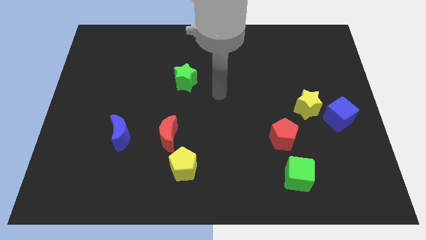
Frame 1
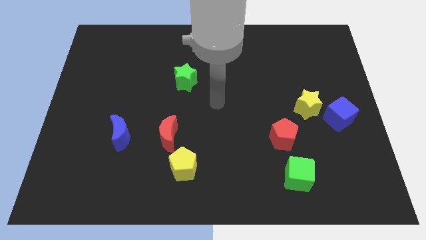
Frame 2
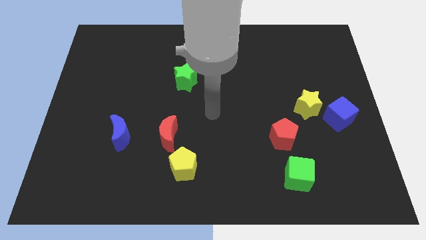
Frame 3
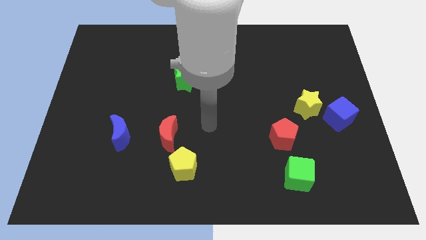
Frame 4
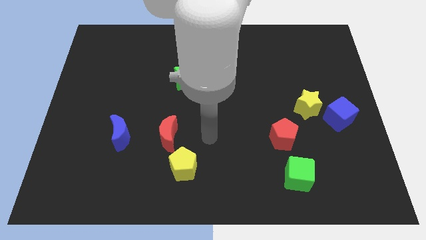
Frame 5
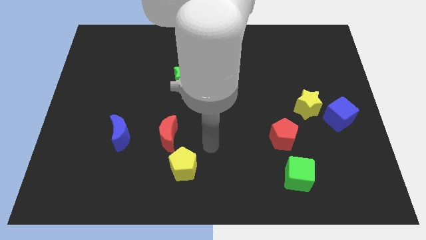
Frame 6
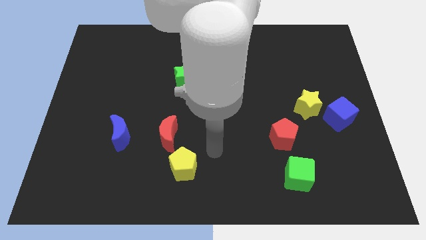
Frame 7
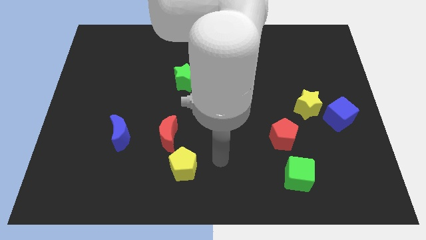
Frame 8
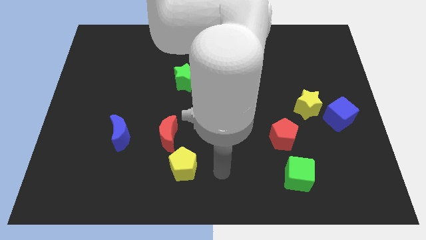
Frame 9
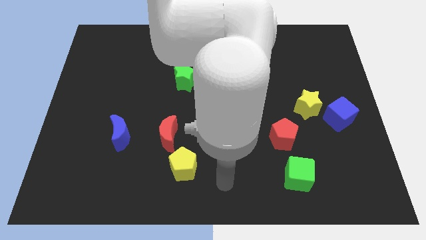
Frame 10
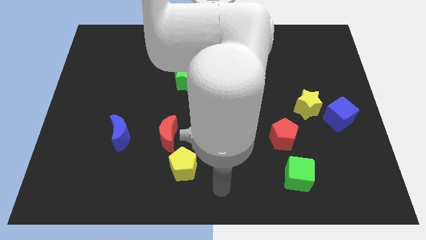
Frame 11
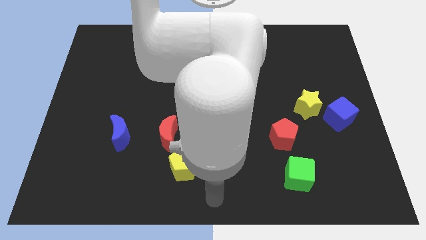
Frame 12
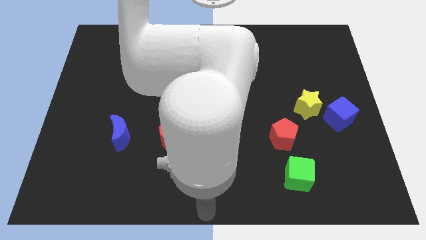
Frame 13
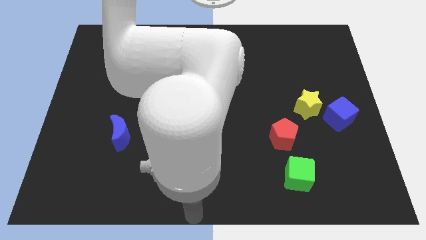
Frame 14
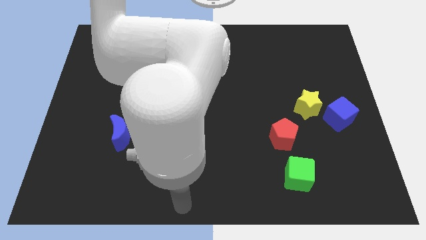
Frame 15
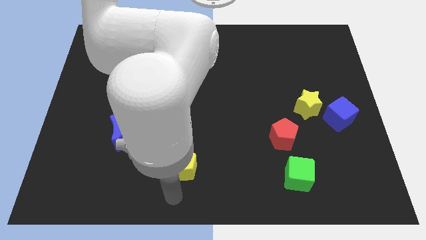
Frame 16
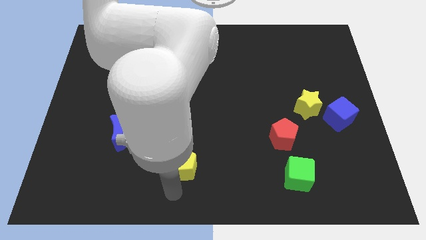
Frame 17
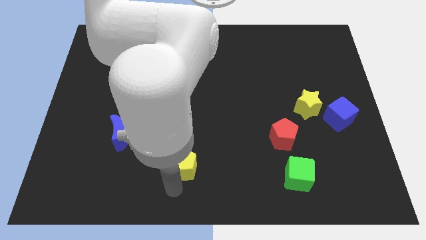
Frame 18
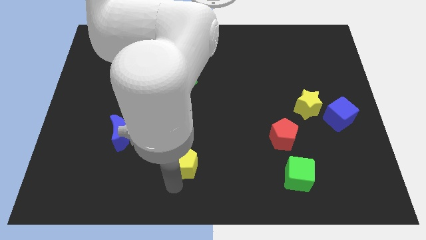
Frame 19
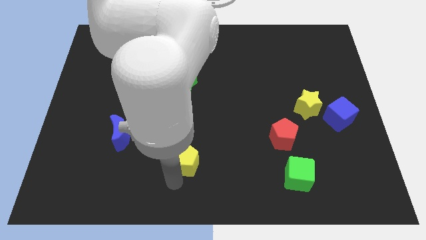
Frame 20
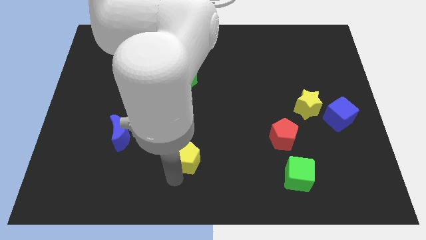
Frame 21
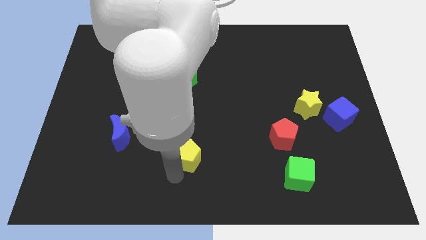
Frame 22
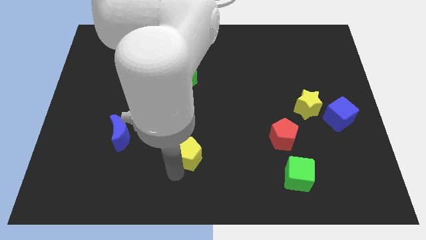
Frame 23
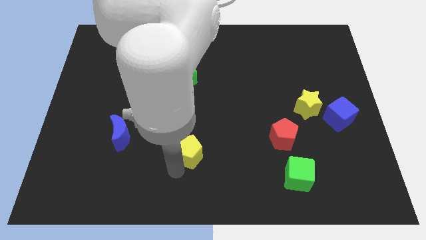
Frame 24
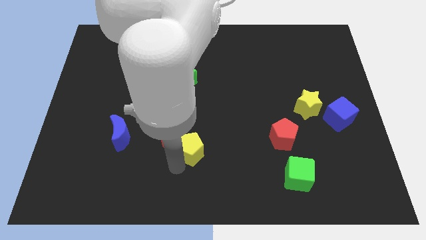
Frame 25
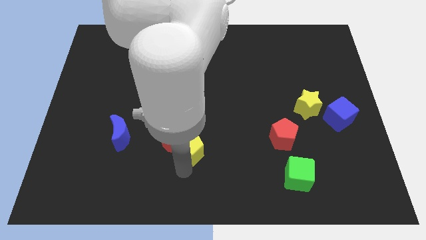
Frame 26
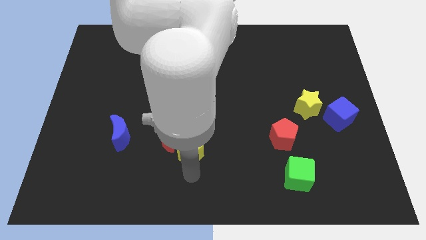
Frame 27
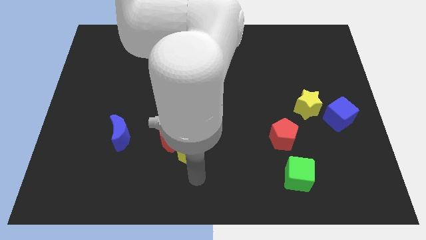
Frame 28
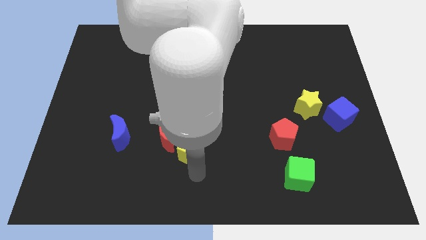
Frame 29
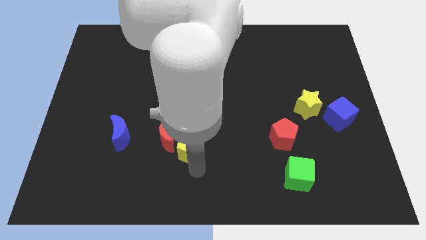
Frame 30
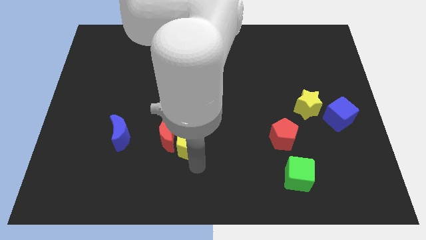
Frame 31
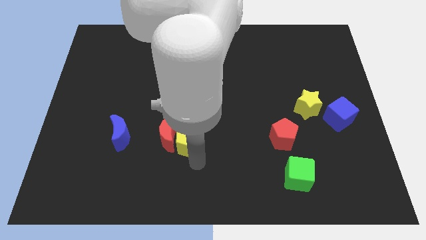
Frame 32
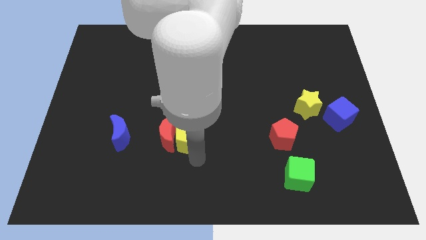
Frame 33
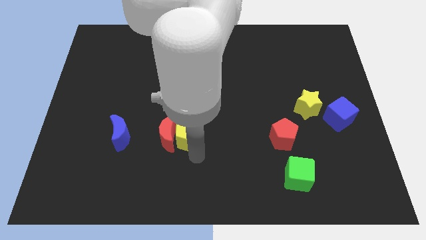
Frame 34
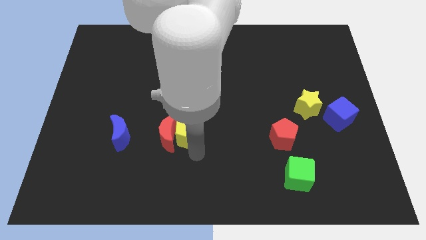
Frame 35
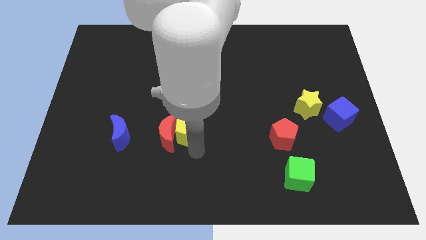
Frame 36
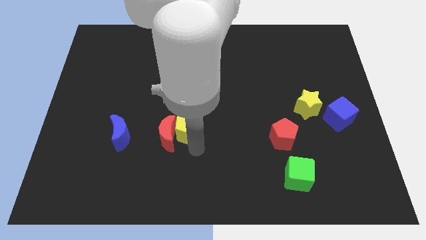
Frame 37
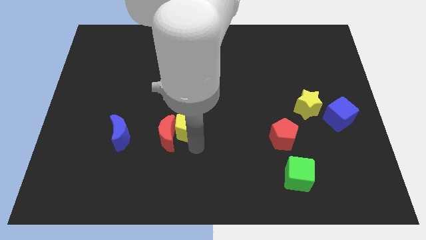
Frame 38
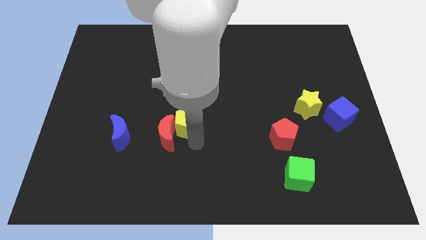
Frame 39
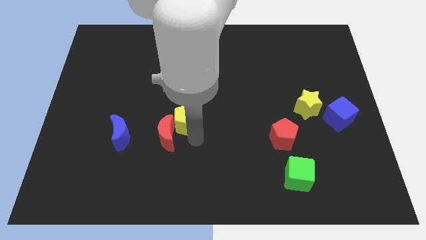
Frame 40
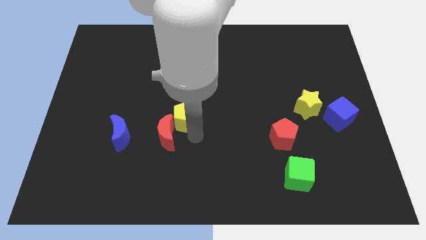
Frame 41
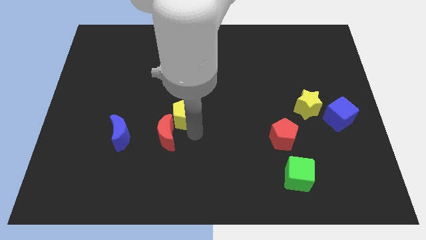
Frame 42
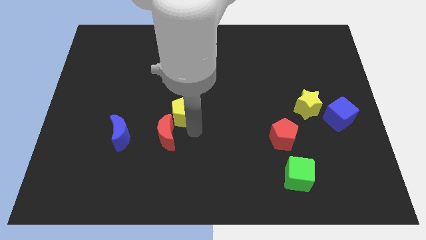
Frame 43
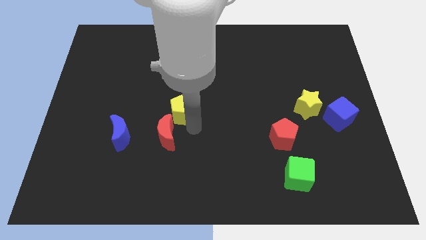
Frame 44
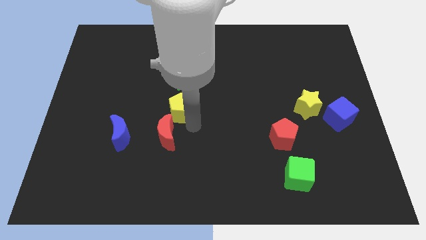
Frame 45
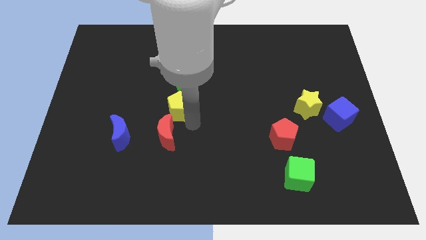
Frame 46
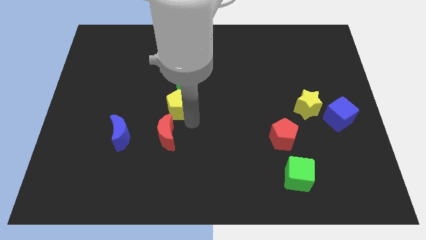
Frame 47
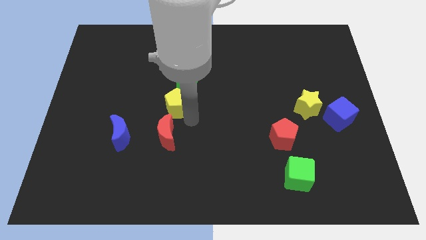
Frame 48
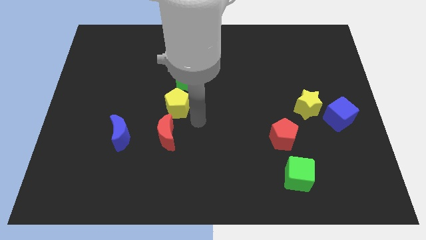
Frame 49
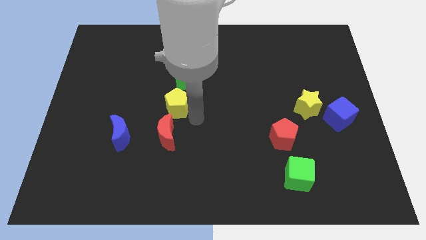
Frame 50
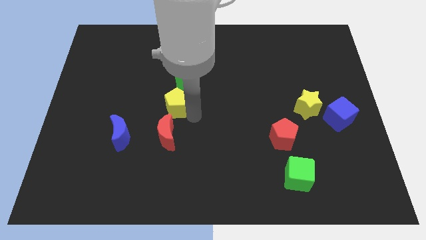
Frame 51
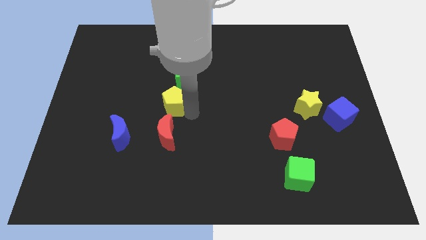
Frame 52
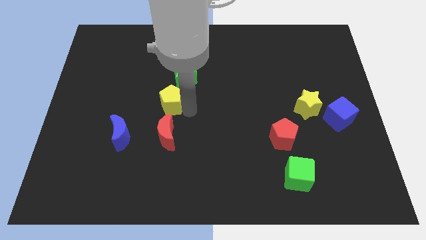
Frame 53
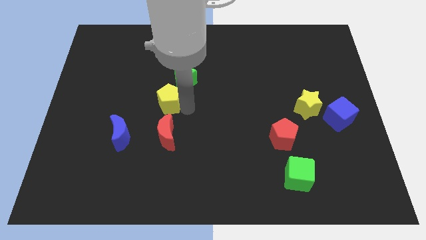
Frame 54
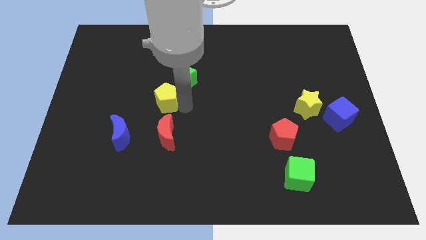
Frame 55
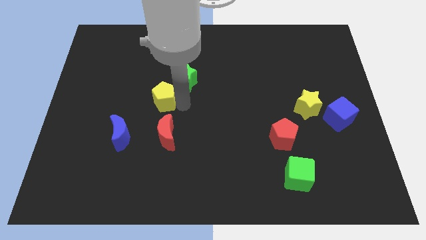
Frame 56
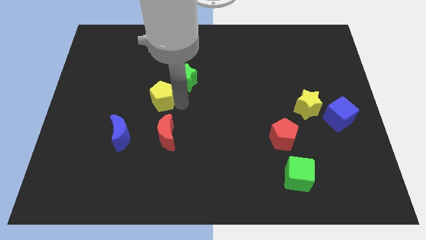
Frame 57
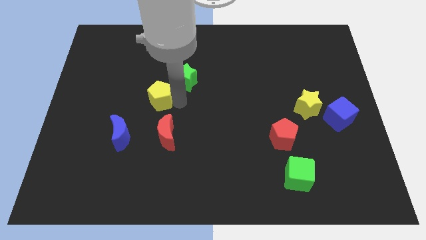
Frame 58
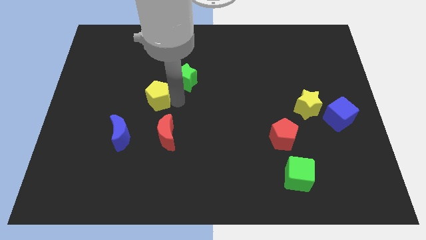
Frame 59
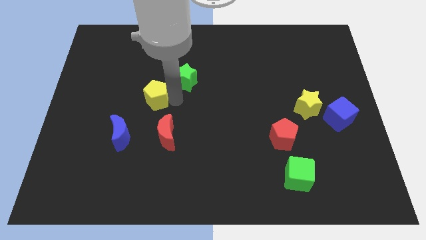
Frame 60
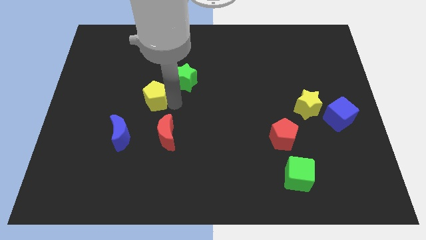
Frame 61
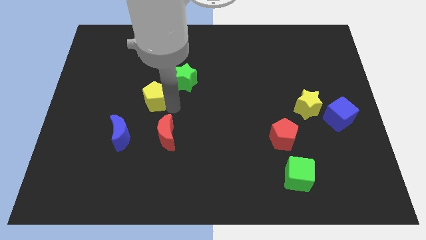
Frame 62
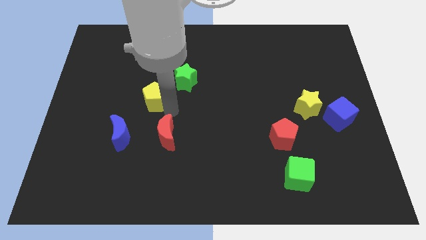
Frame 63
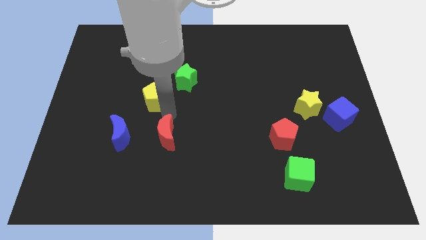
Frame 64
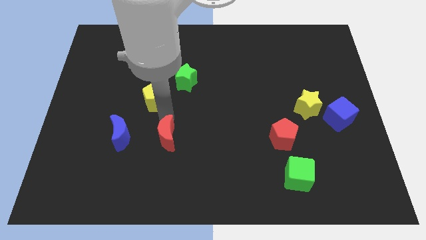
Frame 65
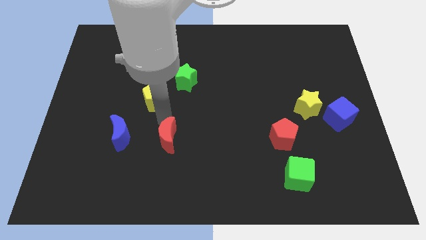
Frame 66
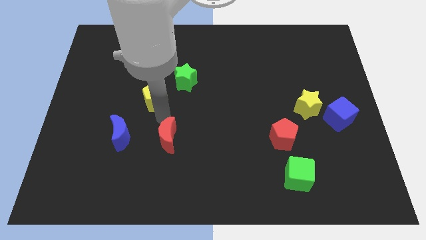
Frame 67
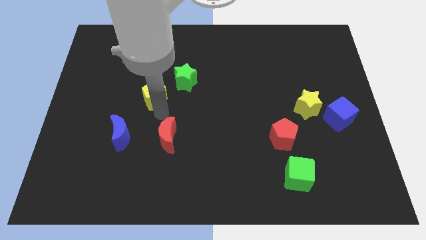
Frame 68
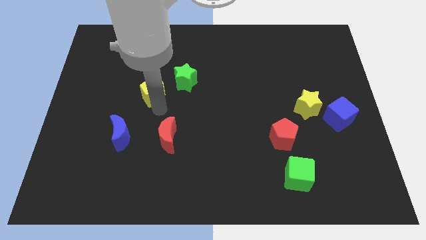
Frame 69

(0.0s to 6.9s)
put the yellow pentagon to the left of the green star

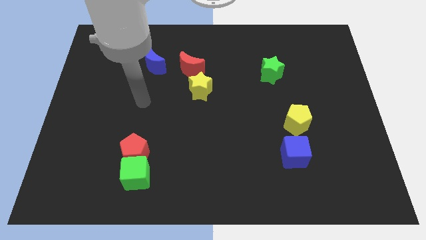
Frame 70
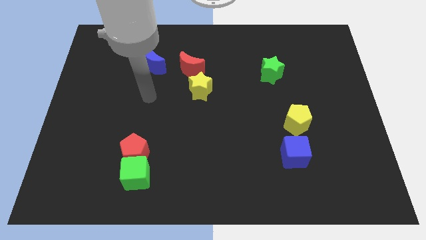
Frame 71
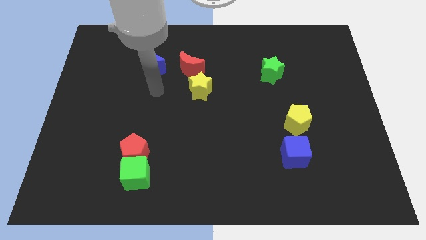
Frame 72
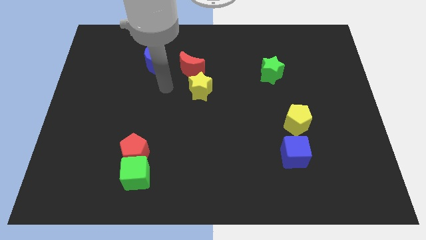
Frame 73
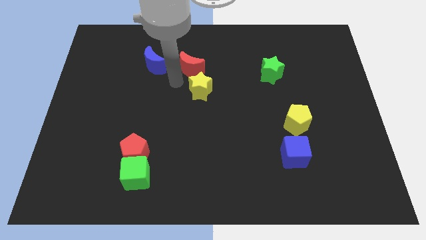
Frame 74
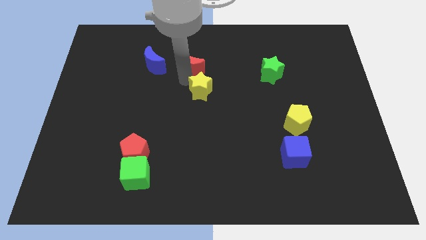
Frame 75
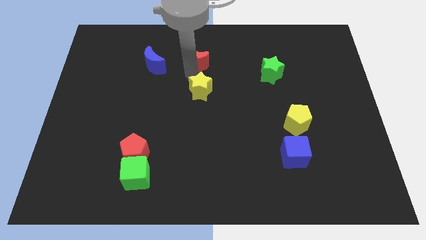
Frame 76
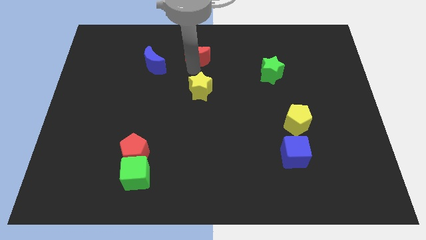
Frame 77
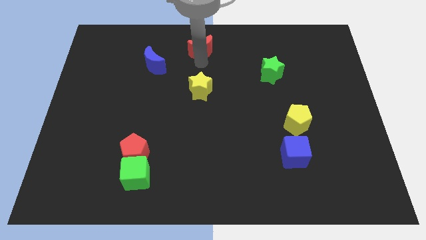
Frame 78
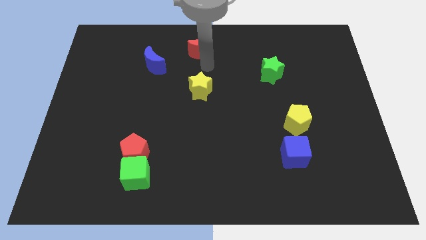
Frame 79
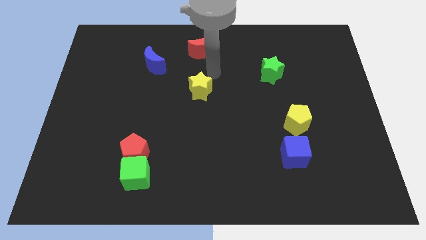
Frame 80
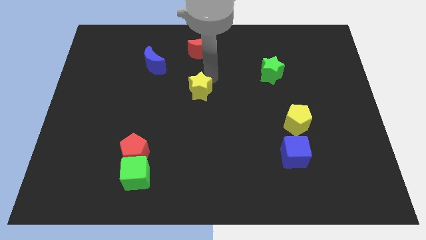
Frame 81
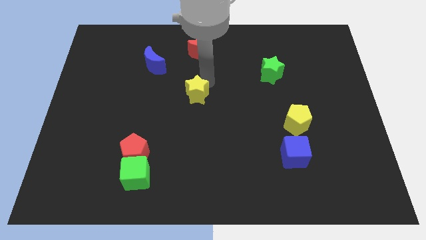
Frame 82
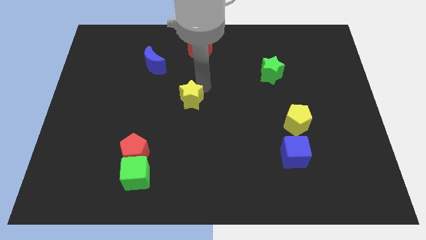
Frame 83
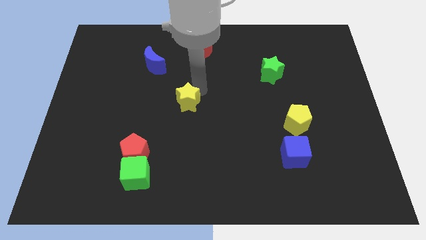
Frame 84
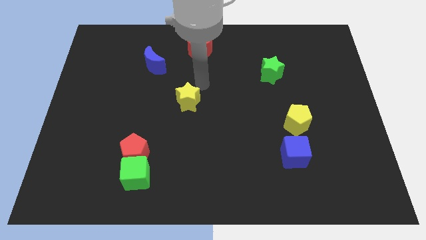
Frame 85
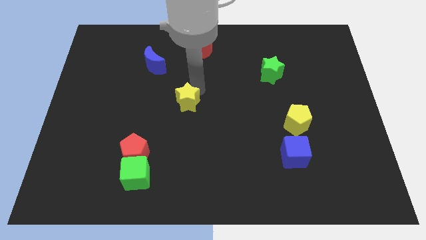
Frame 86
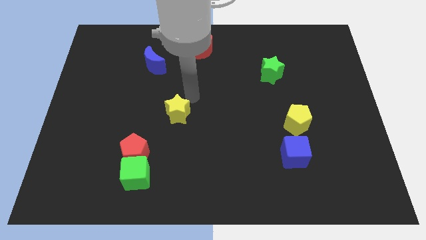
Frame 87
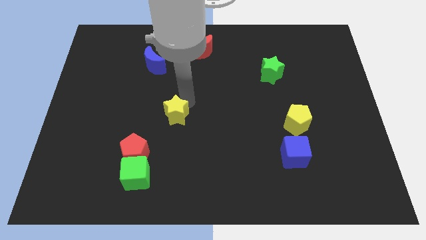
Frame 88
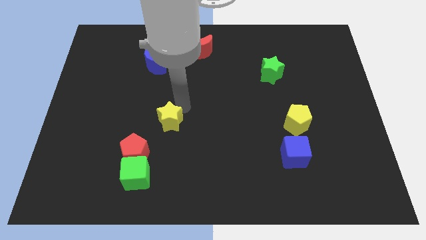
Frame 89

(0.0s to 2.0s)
put the yellow star to the top right side of the red pentagon
